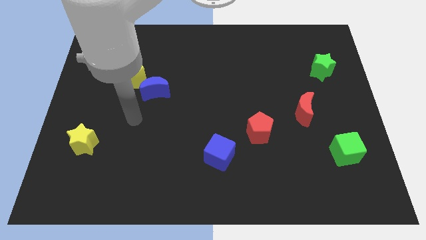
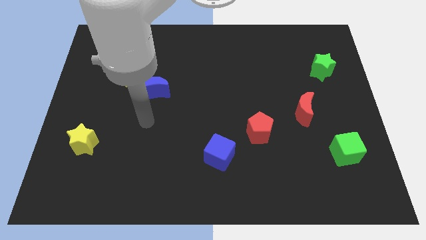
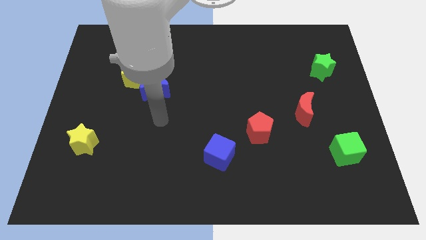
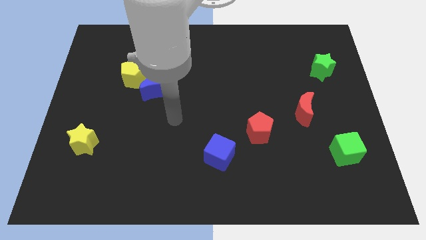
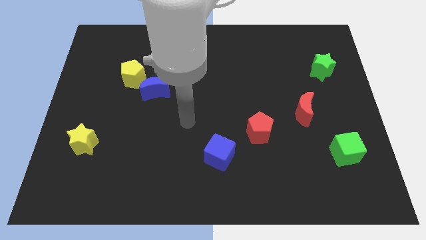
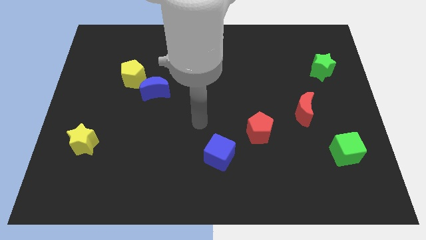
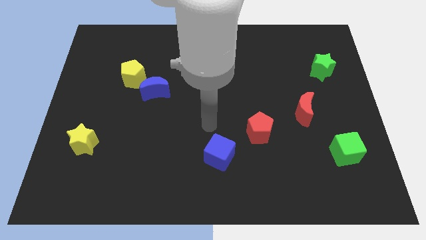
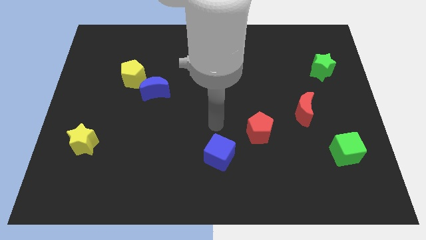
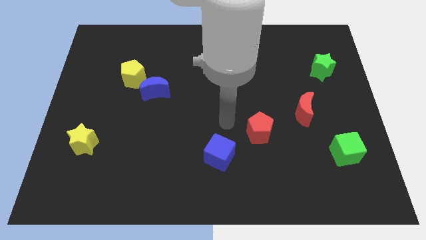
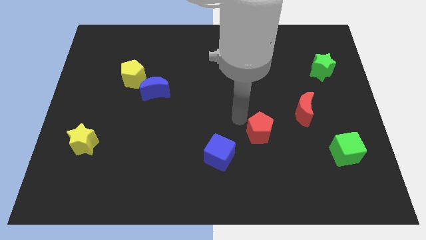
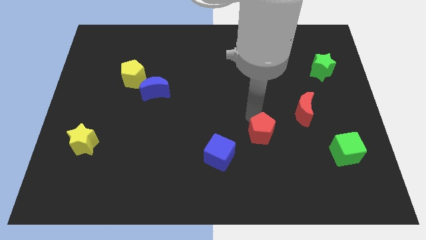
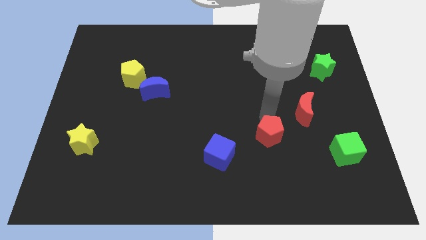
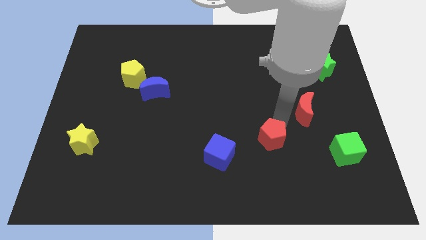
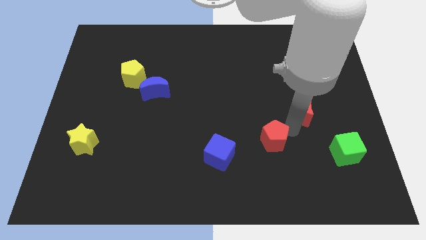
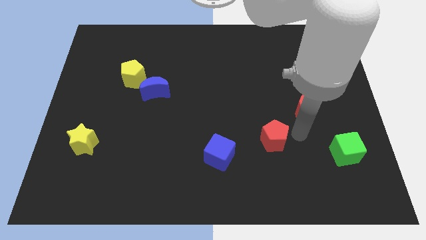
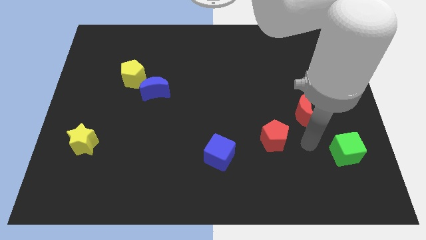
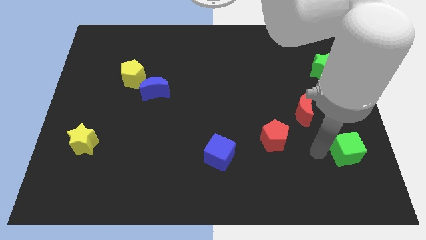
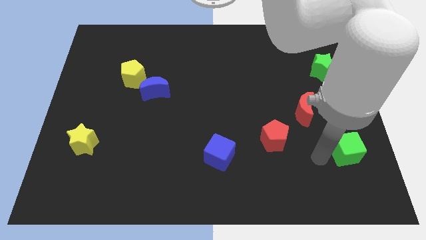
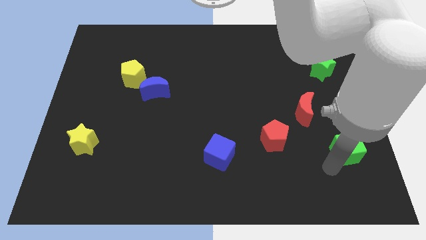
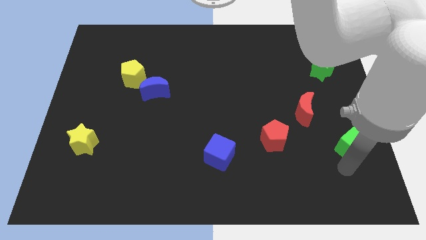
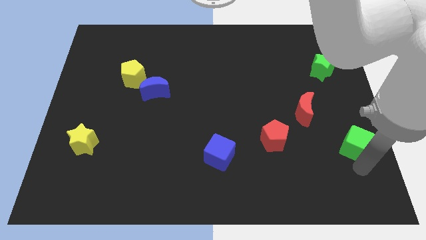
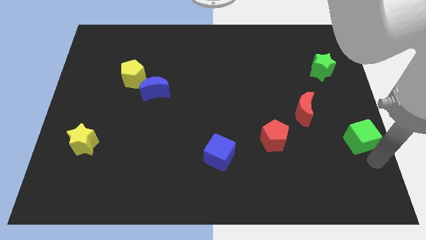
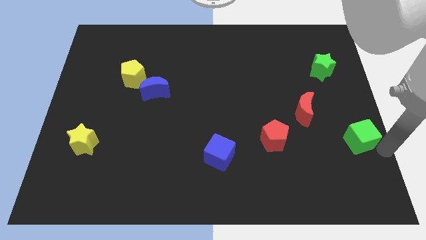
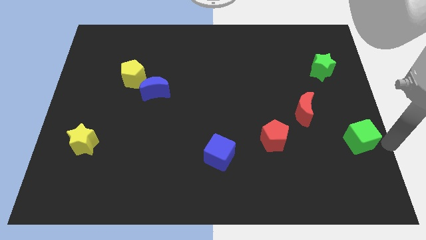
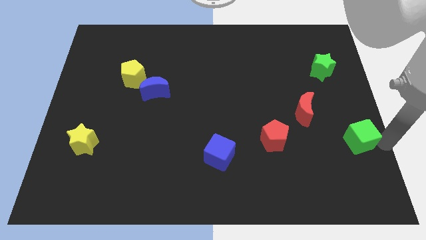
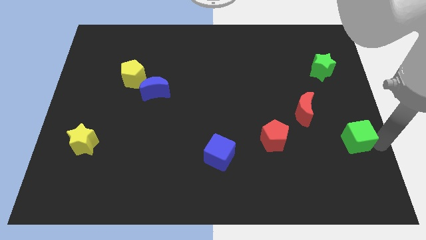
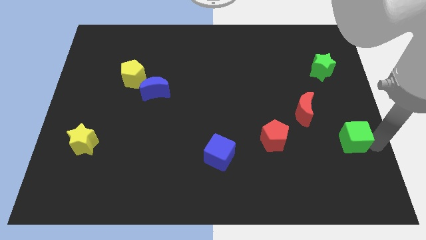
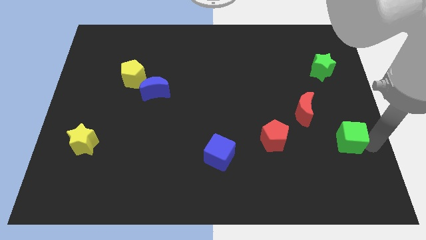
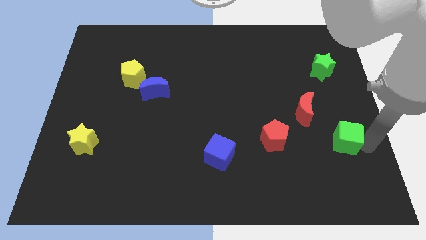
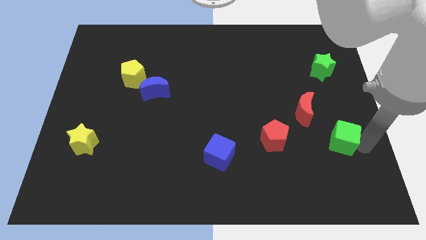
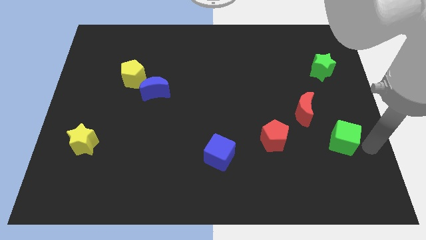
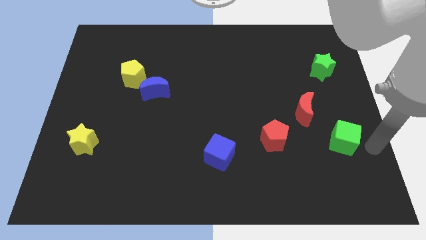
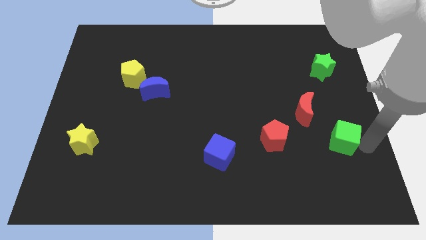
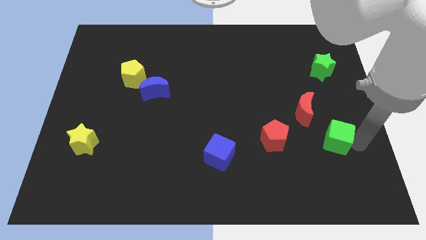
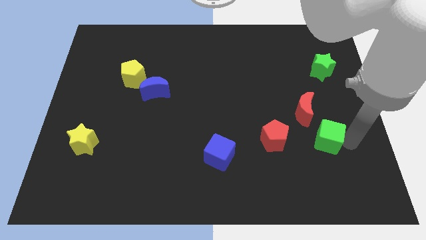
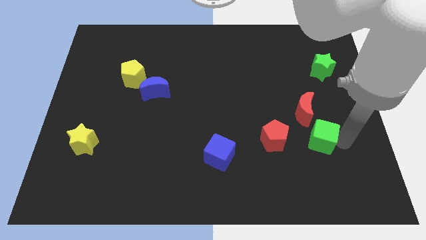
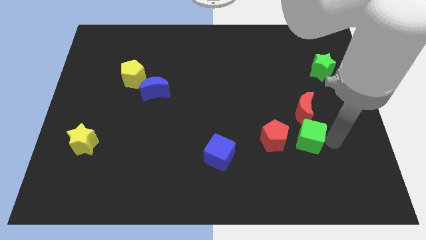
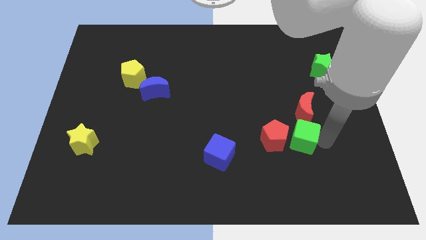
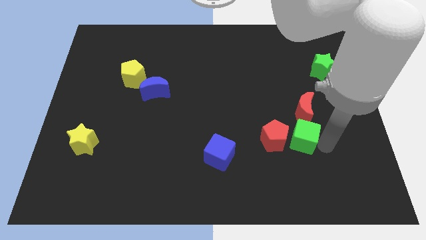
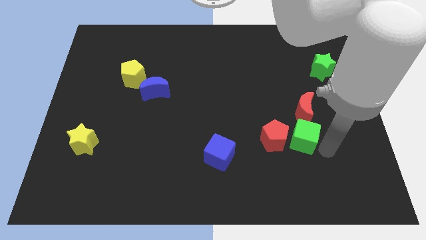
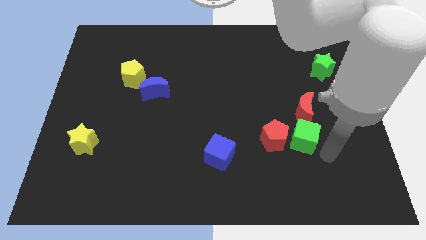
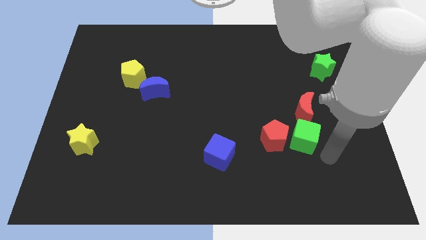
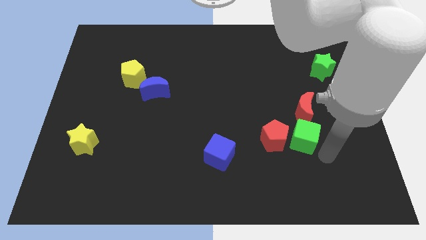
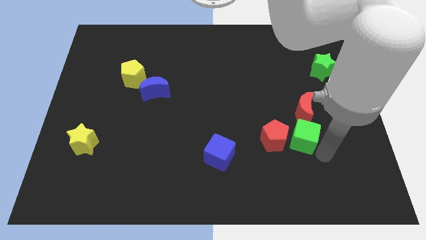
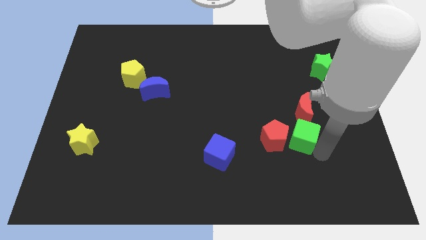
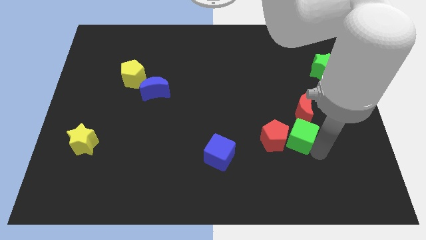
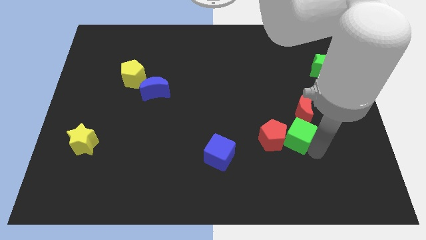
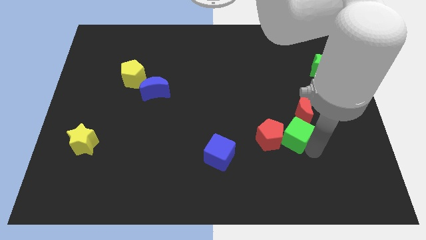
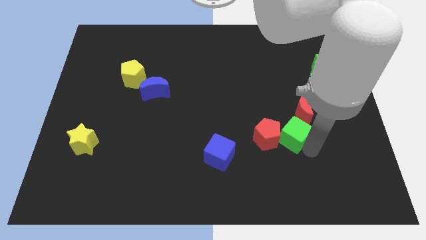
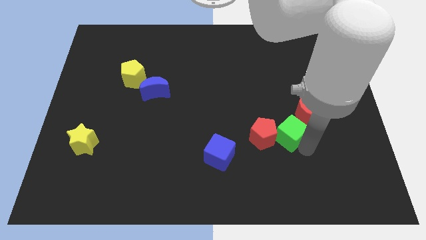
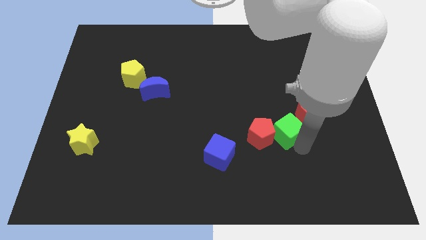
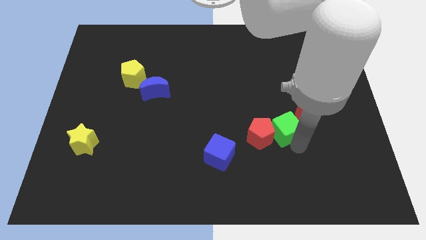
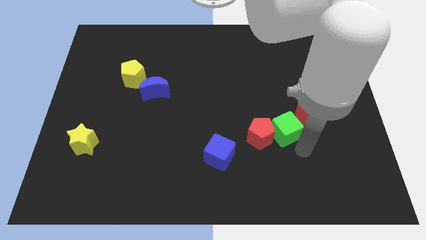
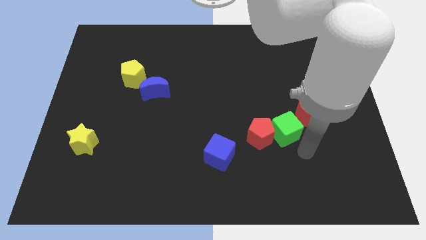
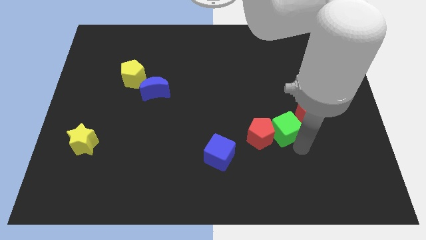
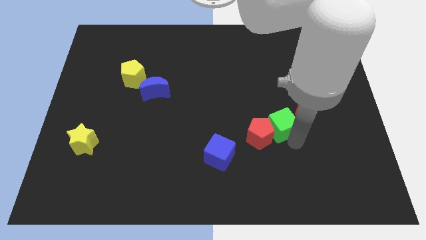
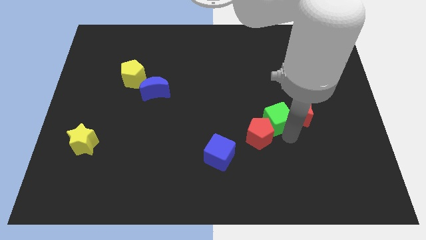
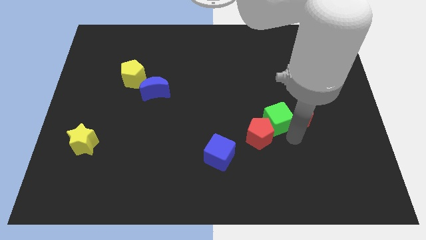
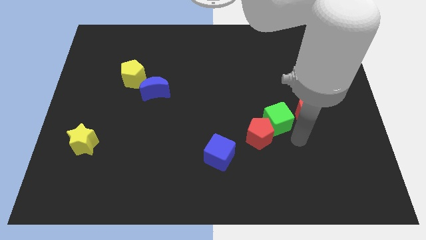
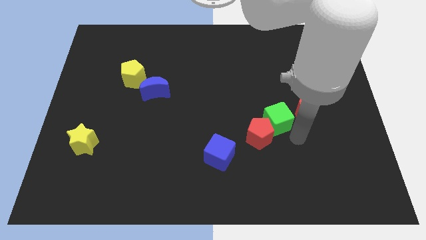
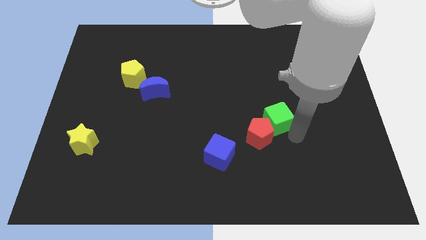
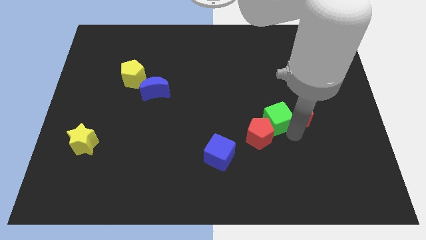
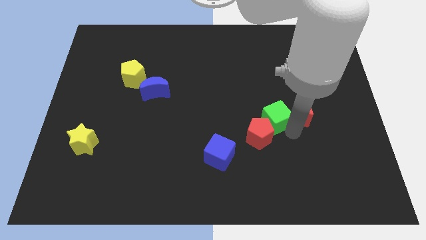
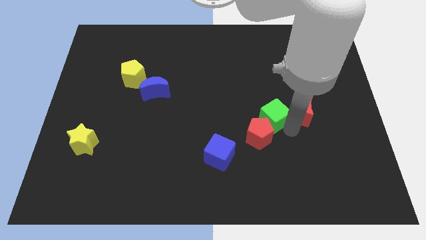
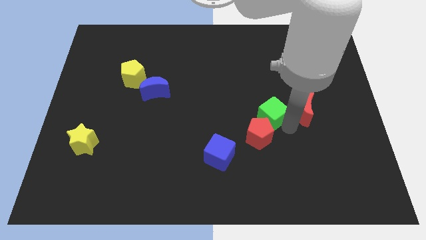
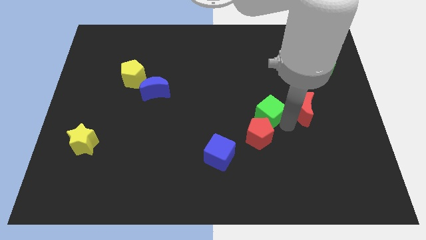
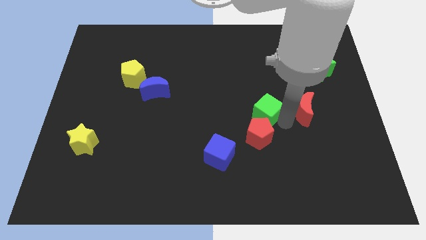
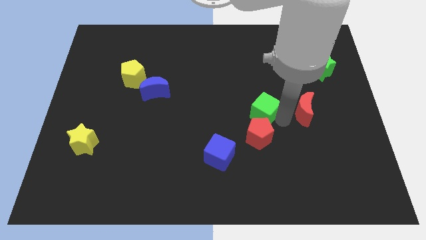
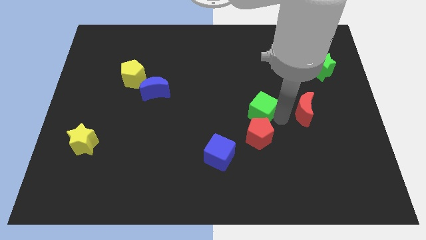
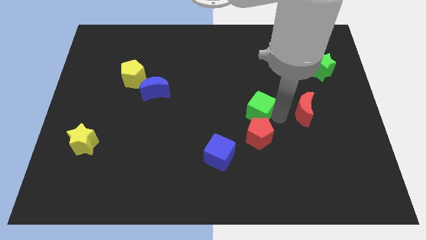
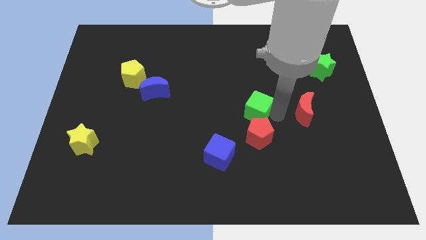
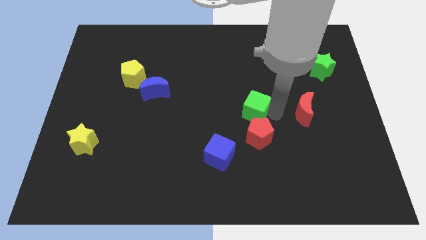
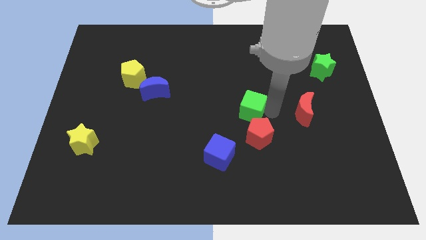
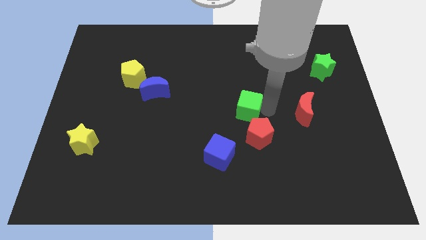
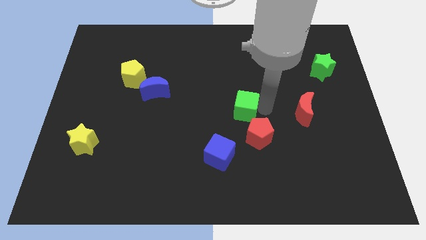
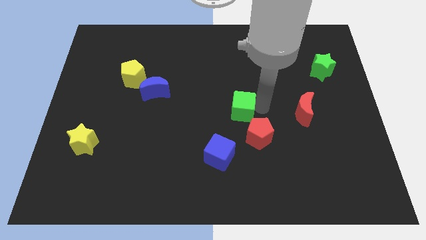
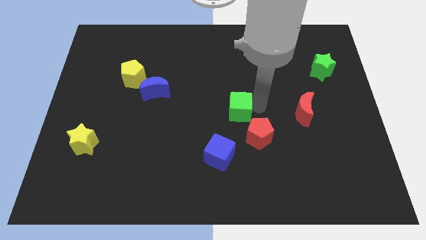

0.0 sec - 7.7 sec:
put the green cube to the top side of the blue cube
